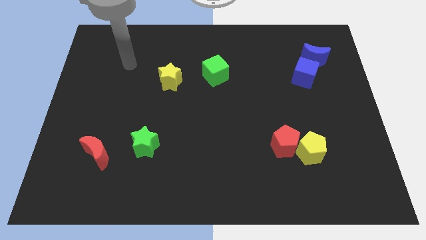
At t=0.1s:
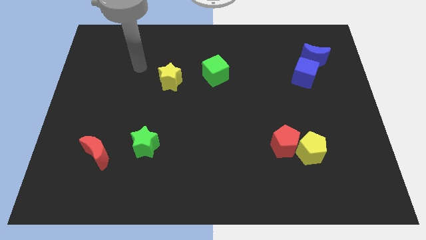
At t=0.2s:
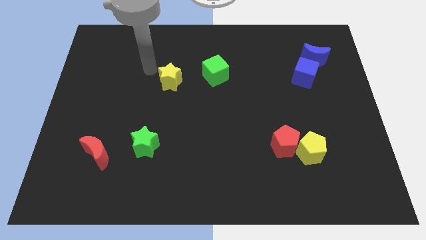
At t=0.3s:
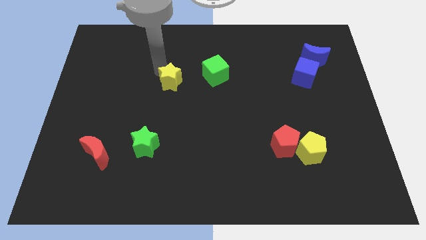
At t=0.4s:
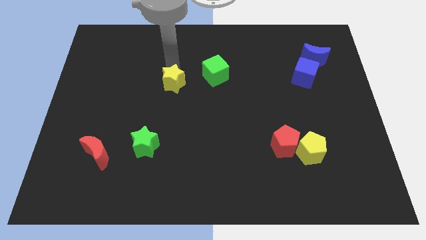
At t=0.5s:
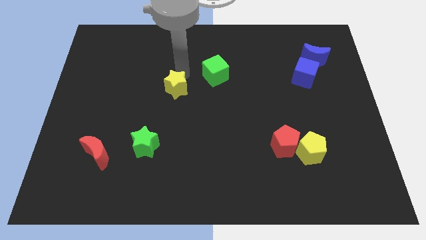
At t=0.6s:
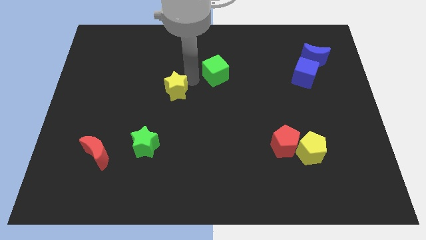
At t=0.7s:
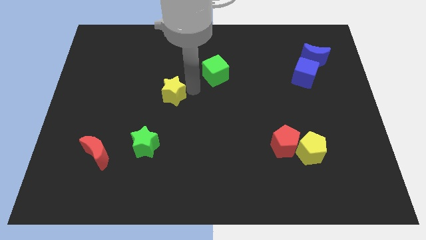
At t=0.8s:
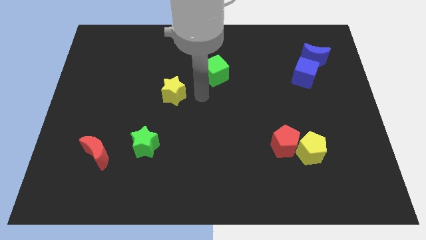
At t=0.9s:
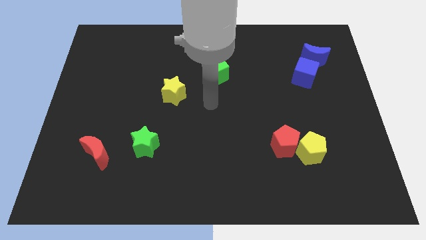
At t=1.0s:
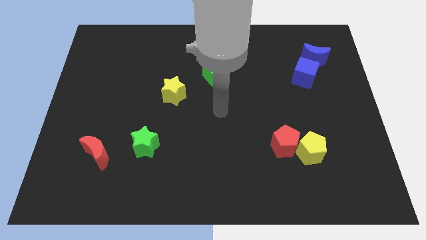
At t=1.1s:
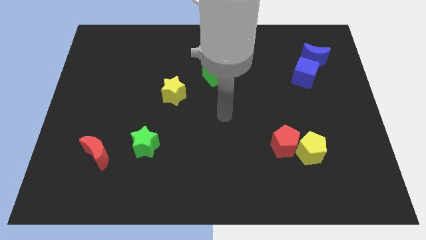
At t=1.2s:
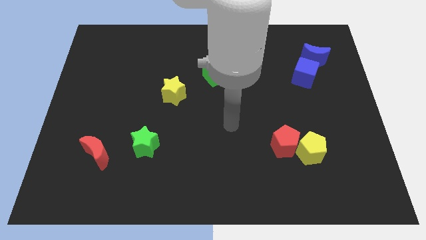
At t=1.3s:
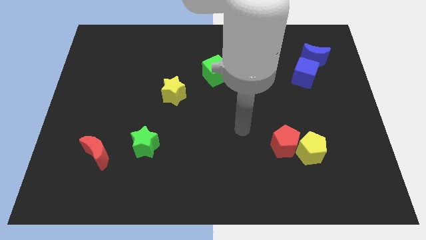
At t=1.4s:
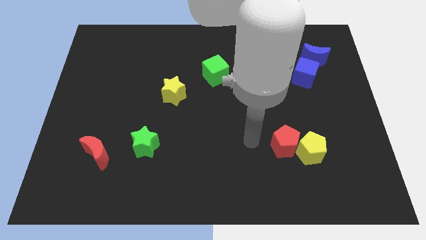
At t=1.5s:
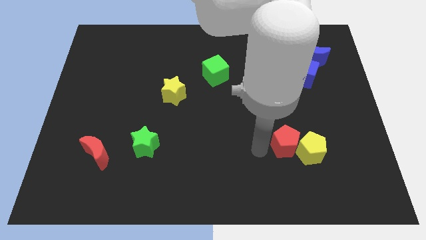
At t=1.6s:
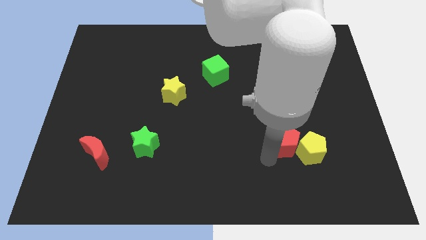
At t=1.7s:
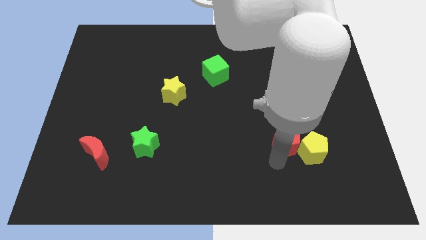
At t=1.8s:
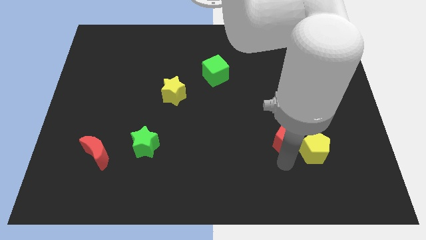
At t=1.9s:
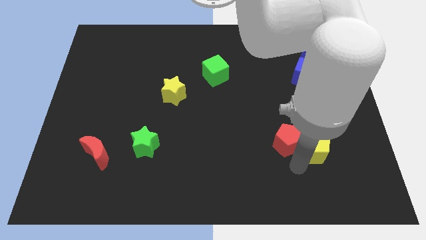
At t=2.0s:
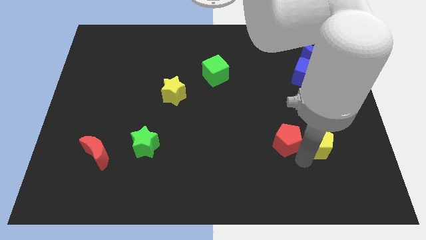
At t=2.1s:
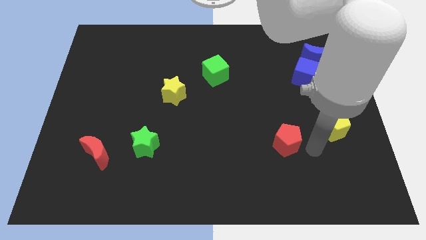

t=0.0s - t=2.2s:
move the red pentagon away from the yellow pentagon

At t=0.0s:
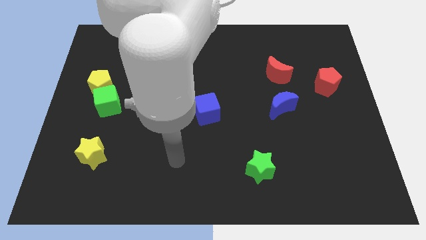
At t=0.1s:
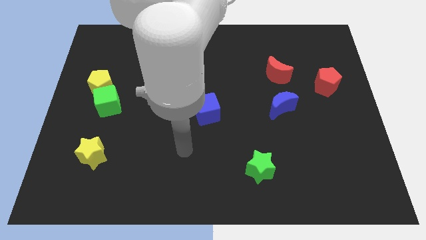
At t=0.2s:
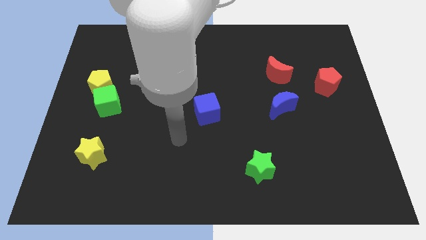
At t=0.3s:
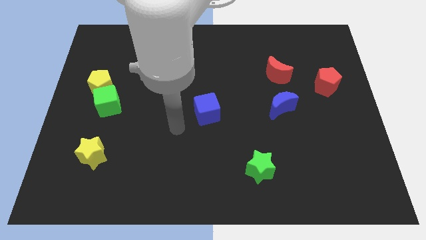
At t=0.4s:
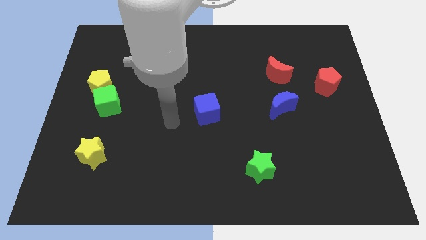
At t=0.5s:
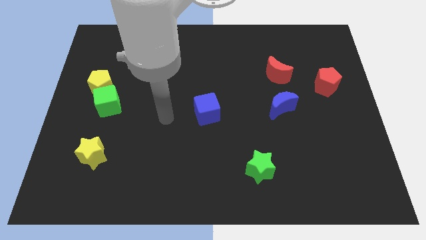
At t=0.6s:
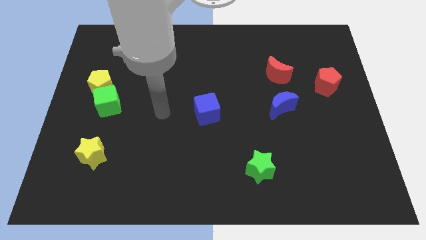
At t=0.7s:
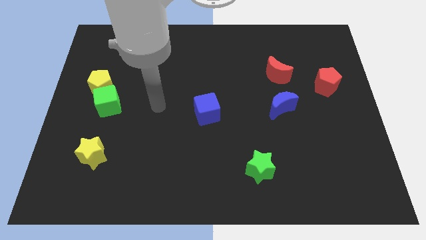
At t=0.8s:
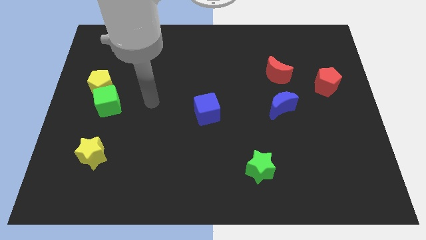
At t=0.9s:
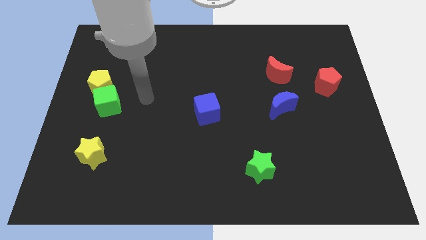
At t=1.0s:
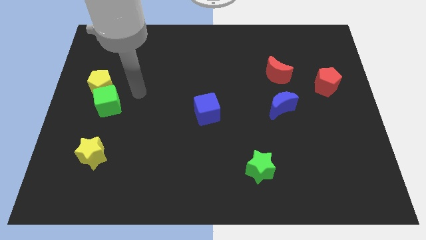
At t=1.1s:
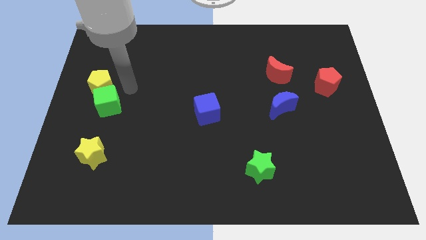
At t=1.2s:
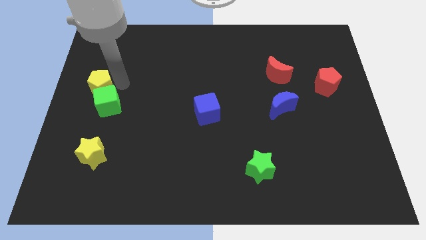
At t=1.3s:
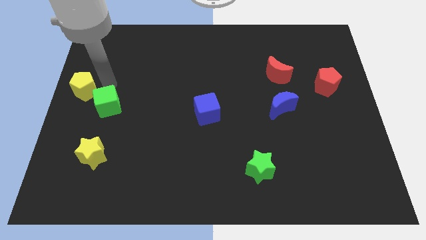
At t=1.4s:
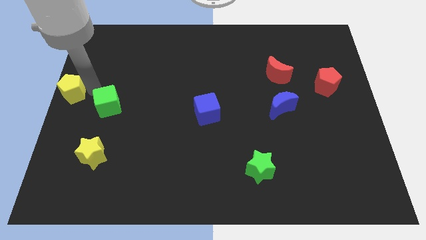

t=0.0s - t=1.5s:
pull the green cube apart from the yellow pentagon

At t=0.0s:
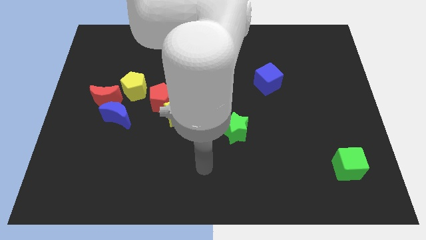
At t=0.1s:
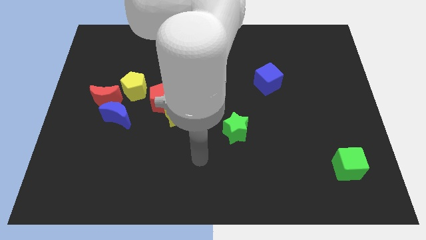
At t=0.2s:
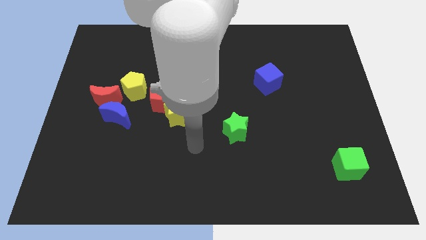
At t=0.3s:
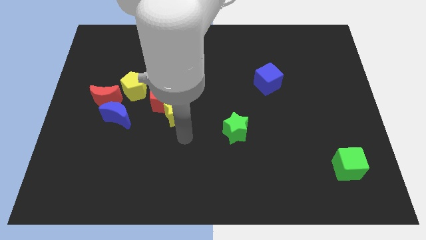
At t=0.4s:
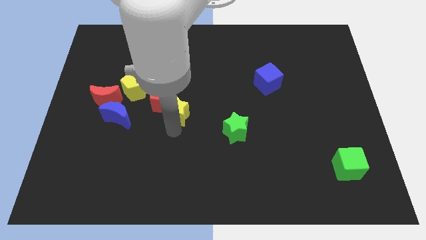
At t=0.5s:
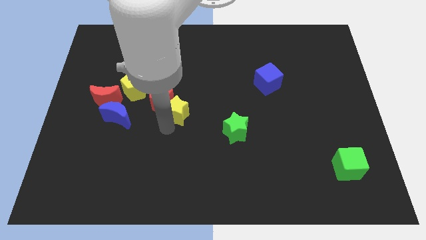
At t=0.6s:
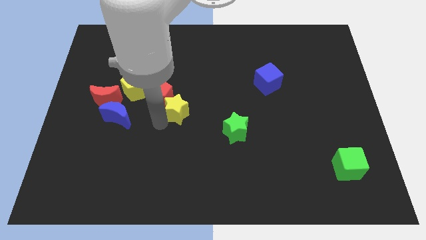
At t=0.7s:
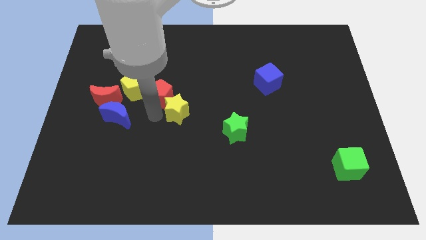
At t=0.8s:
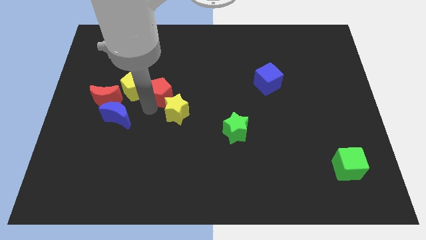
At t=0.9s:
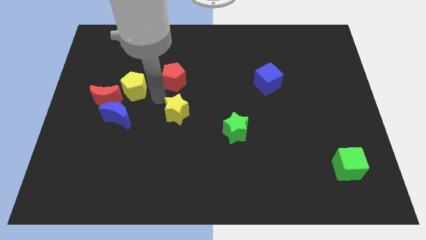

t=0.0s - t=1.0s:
move the yellow star away from the red pentagon

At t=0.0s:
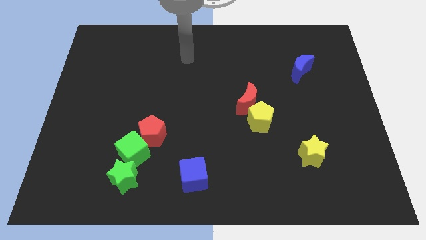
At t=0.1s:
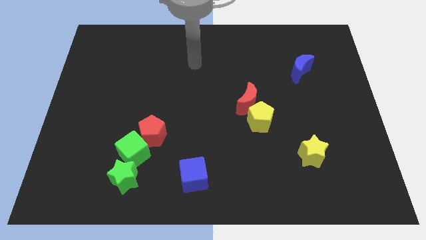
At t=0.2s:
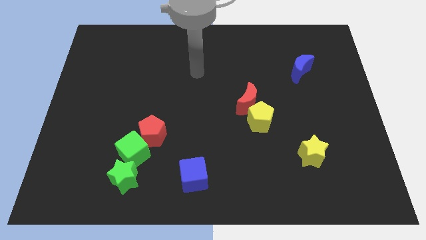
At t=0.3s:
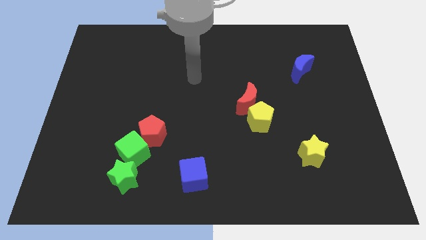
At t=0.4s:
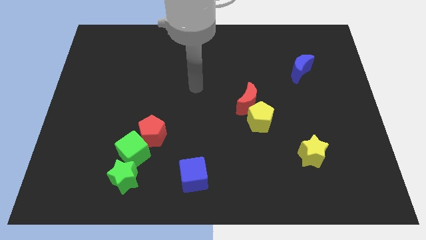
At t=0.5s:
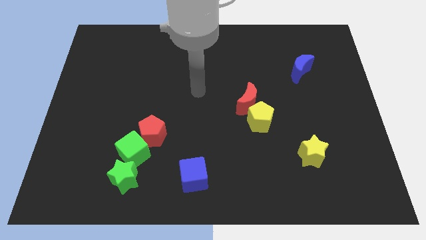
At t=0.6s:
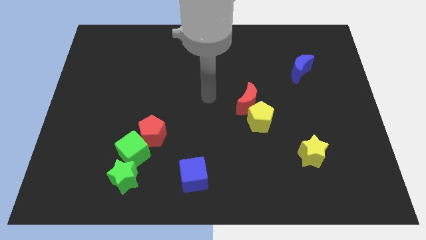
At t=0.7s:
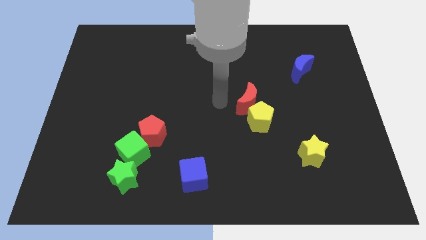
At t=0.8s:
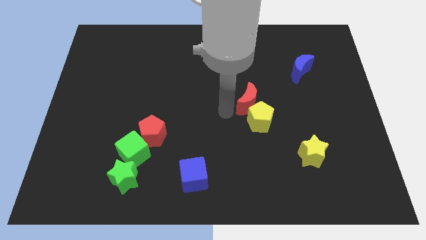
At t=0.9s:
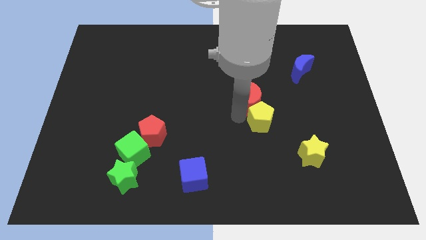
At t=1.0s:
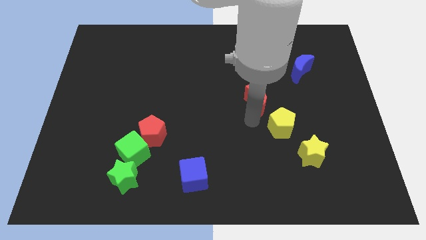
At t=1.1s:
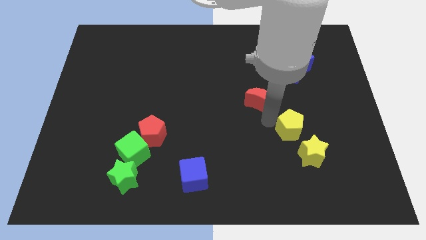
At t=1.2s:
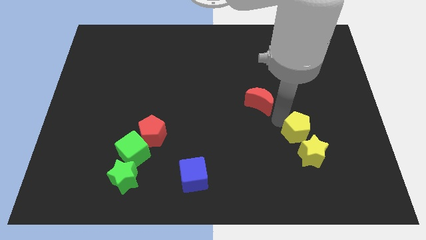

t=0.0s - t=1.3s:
pull the red moon apart from the yellow pentagon

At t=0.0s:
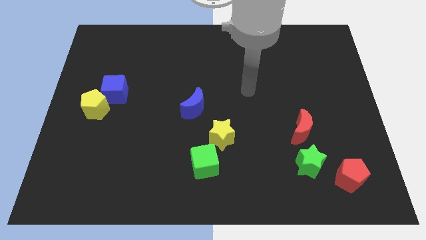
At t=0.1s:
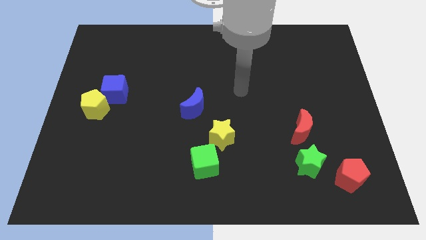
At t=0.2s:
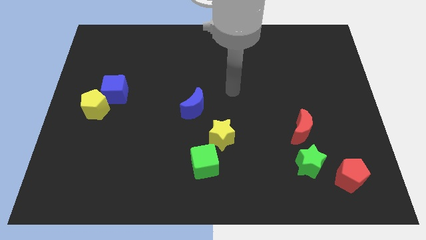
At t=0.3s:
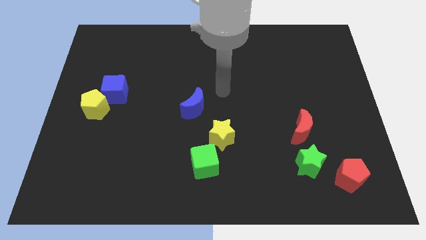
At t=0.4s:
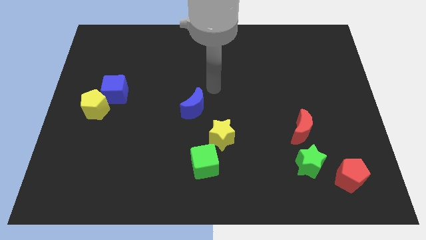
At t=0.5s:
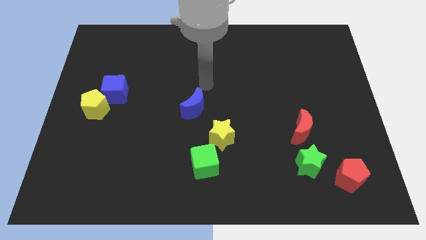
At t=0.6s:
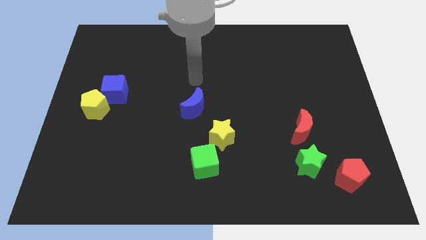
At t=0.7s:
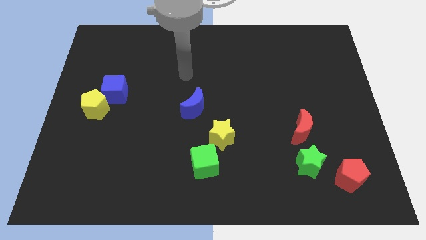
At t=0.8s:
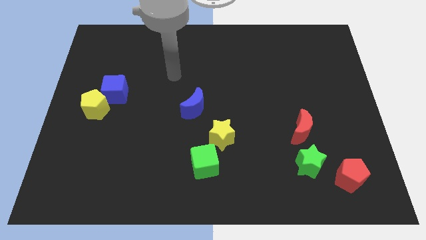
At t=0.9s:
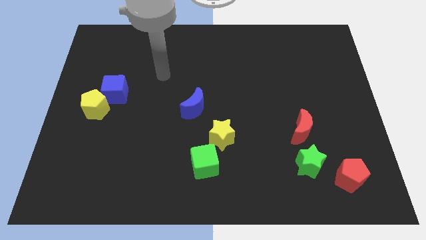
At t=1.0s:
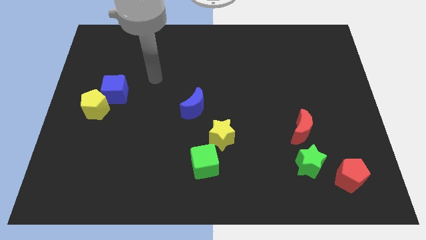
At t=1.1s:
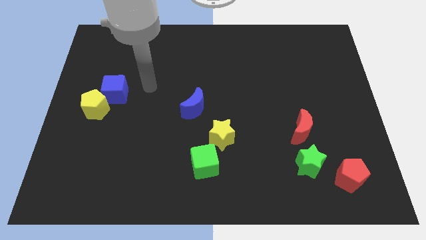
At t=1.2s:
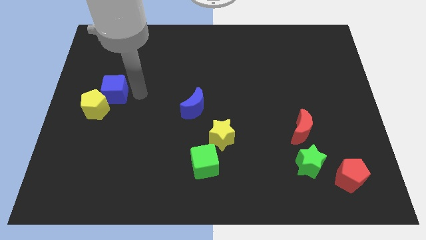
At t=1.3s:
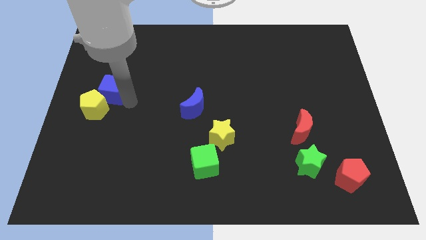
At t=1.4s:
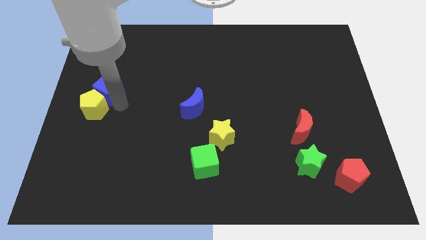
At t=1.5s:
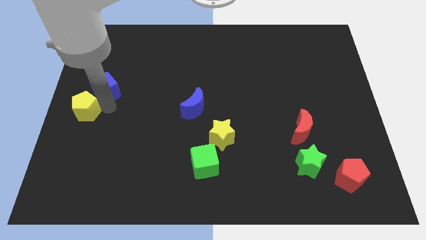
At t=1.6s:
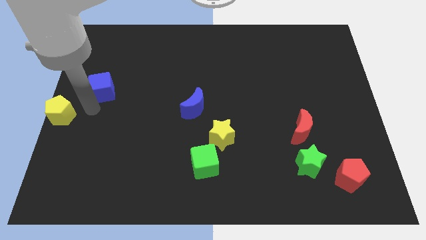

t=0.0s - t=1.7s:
pull the blue cube apart from the yellow pentagon

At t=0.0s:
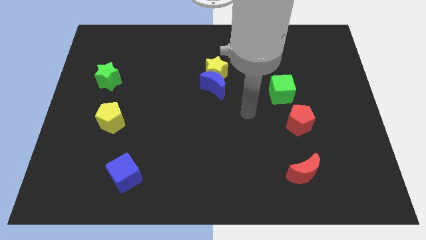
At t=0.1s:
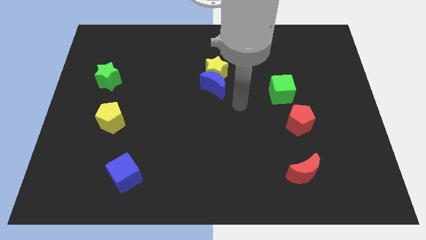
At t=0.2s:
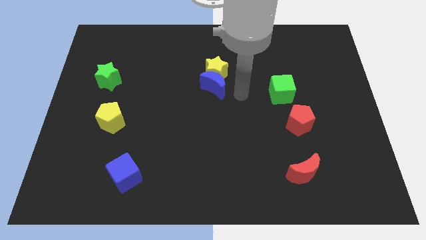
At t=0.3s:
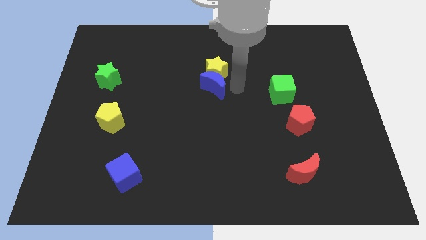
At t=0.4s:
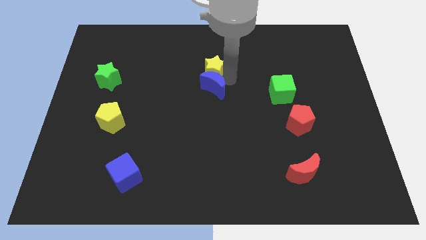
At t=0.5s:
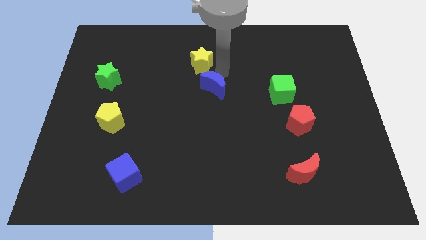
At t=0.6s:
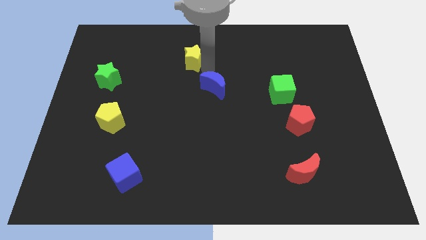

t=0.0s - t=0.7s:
separate the blue moon from the yellow star

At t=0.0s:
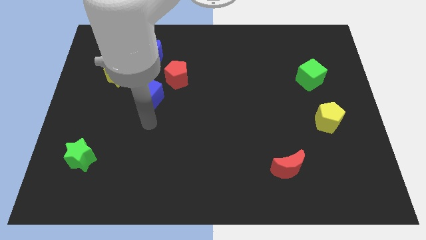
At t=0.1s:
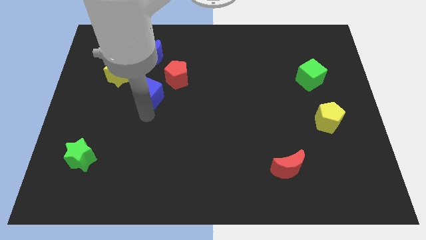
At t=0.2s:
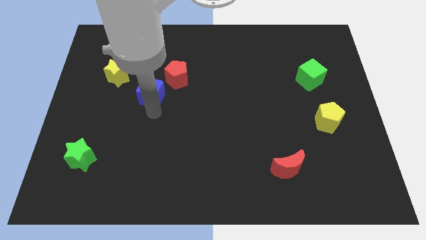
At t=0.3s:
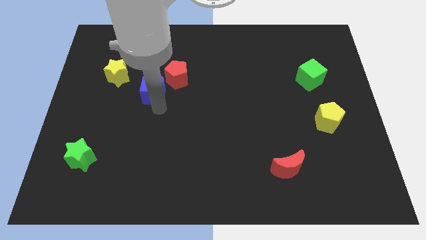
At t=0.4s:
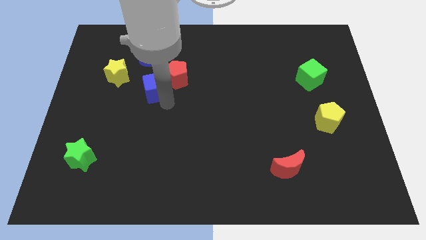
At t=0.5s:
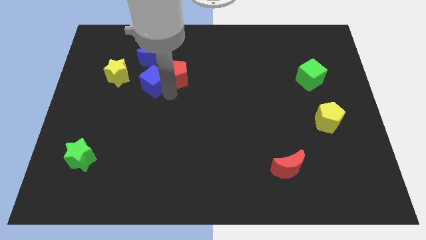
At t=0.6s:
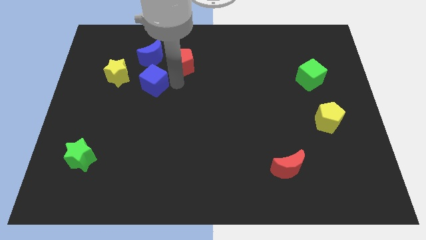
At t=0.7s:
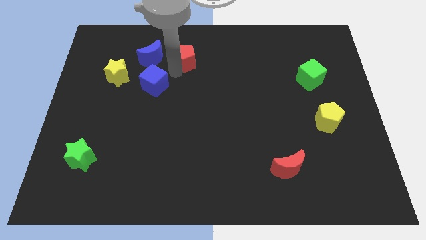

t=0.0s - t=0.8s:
separate the blue cube from the red pentagon
